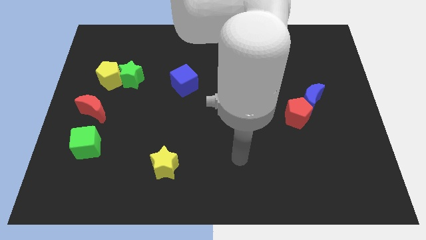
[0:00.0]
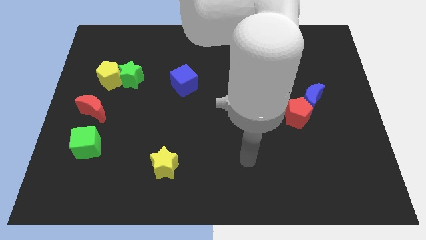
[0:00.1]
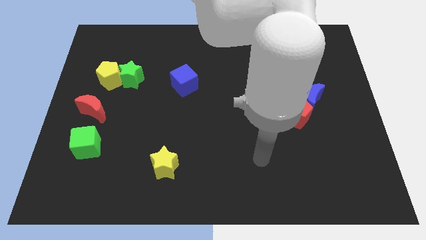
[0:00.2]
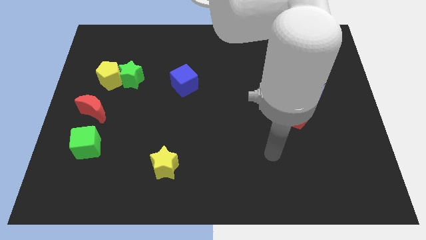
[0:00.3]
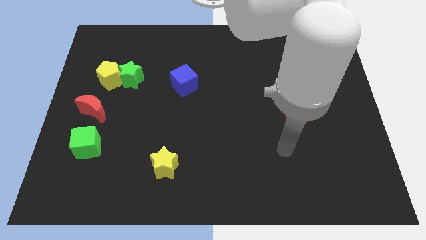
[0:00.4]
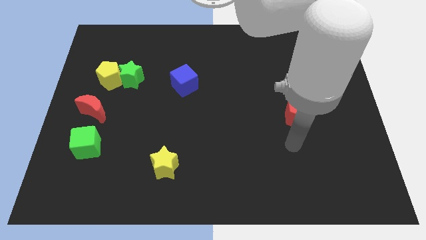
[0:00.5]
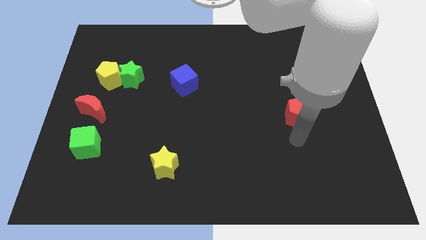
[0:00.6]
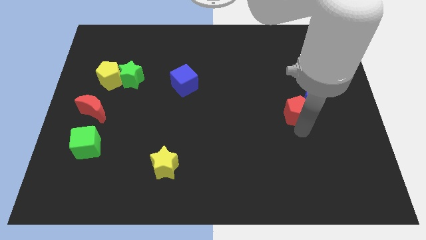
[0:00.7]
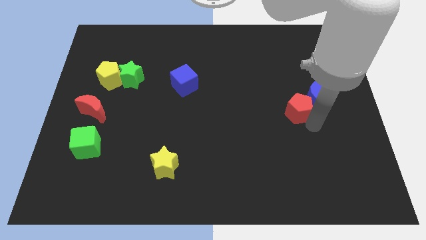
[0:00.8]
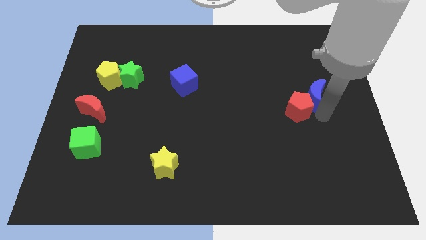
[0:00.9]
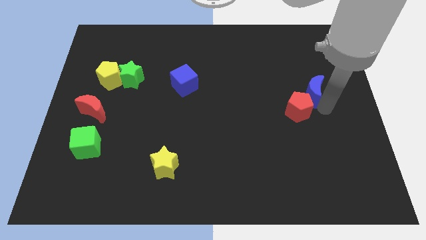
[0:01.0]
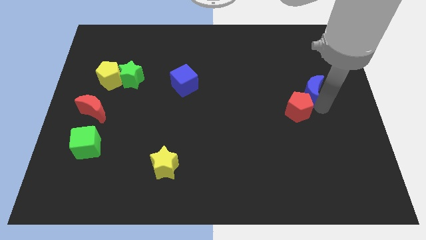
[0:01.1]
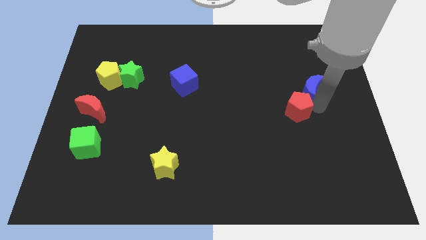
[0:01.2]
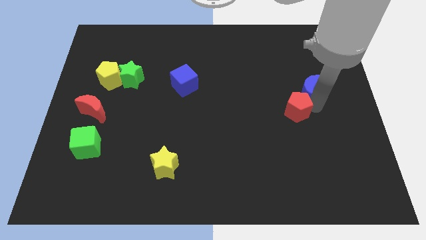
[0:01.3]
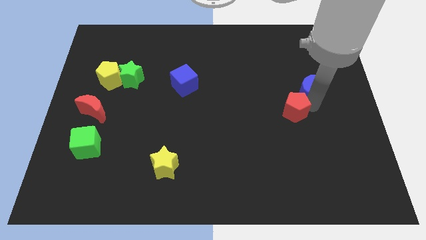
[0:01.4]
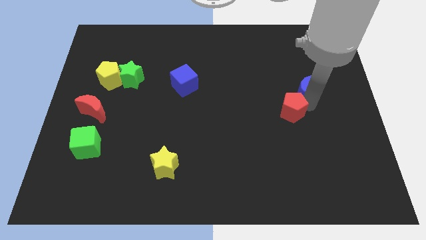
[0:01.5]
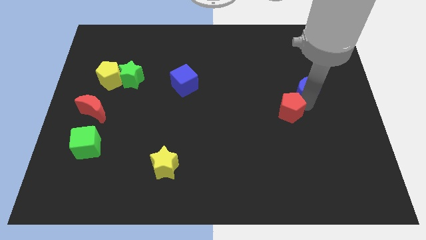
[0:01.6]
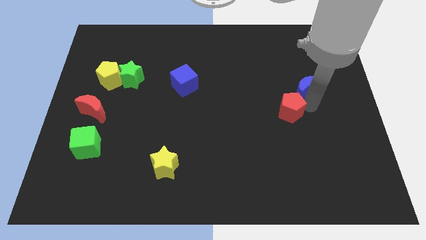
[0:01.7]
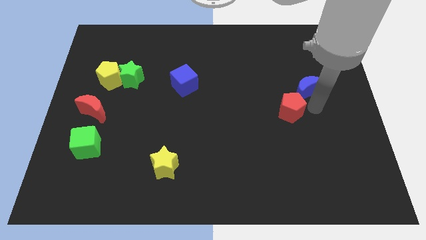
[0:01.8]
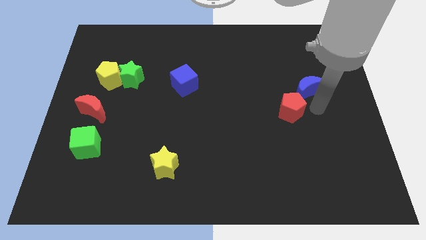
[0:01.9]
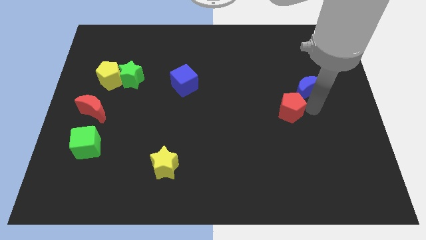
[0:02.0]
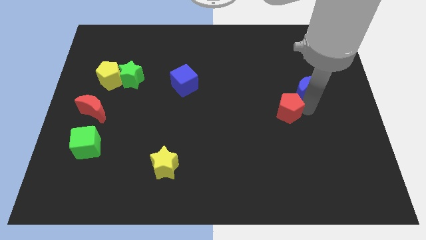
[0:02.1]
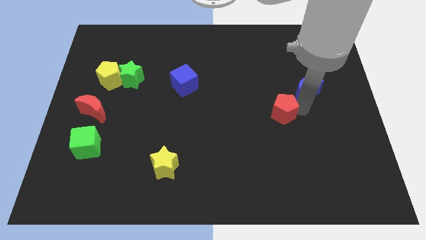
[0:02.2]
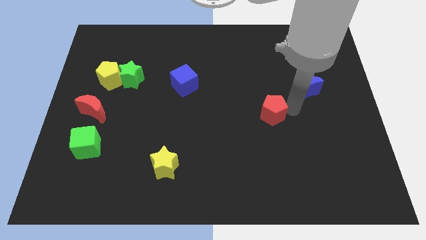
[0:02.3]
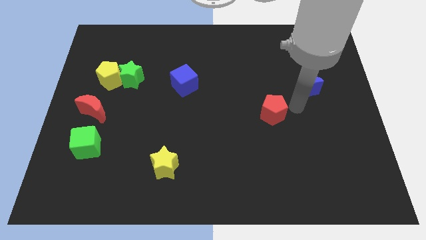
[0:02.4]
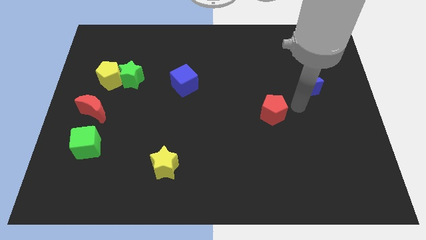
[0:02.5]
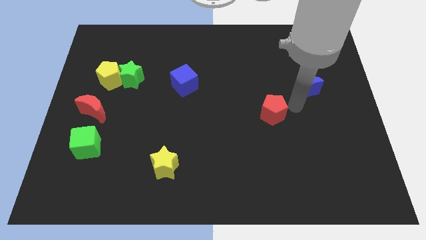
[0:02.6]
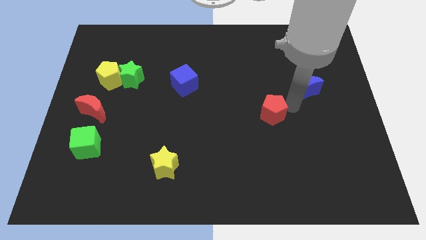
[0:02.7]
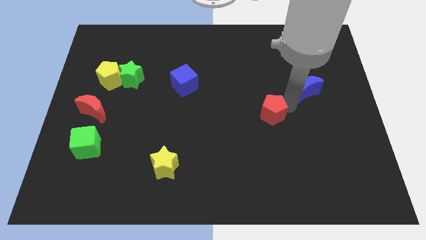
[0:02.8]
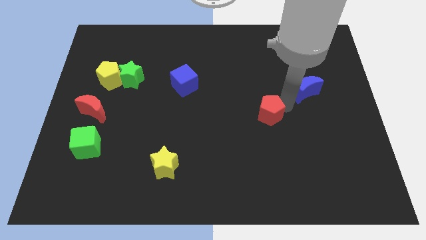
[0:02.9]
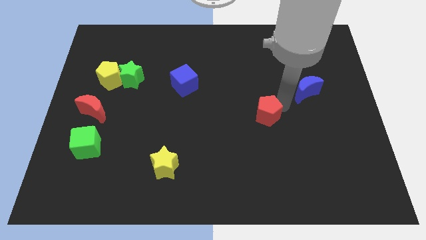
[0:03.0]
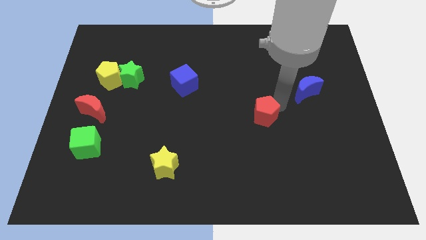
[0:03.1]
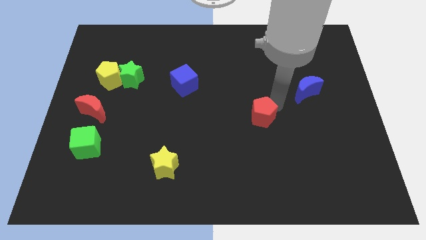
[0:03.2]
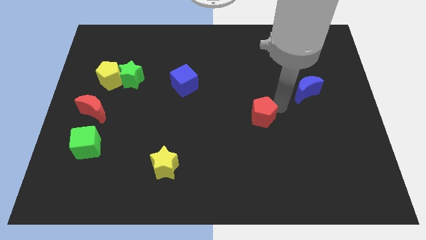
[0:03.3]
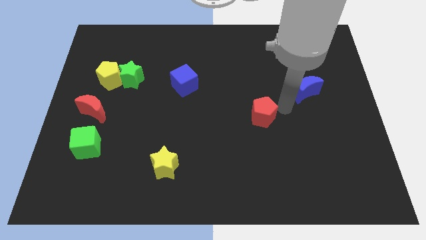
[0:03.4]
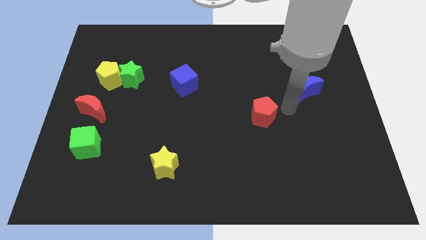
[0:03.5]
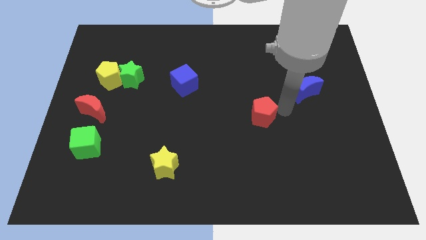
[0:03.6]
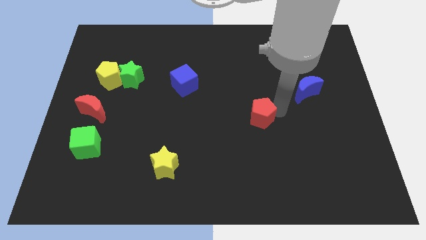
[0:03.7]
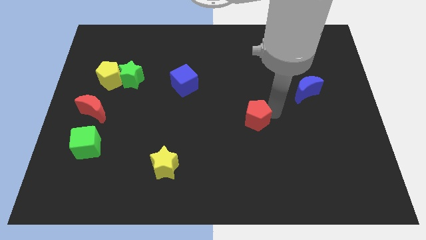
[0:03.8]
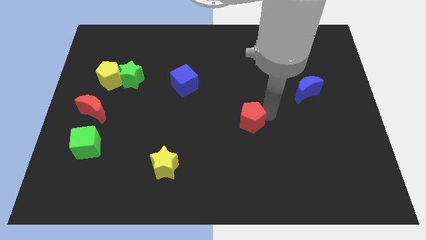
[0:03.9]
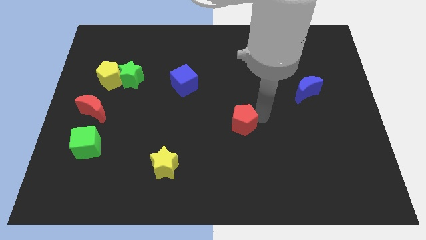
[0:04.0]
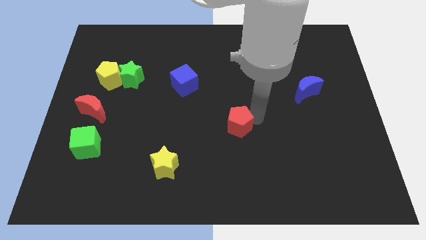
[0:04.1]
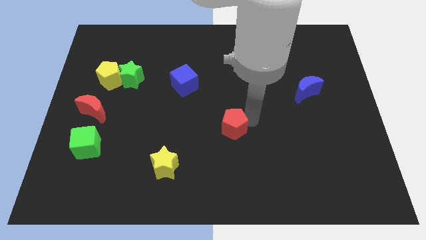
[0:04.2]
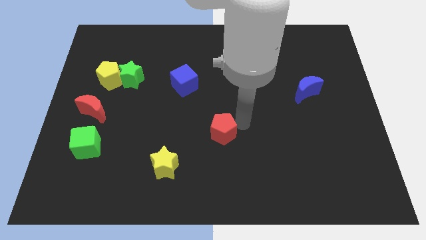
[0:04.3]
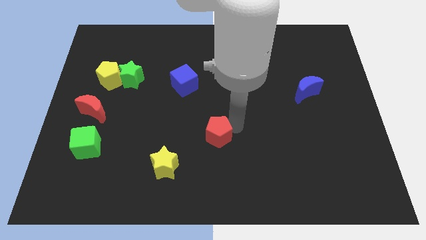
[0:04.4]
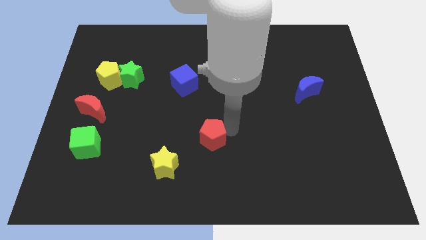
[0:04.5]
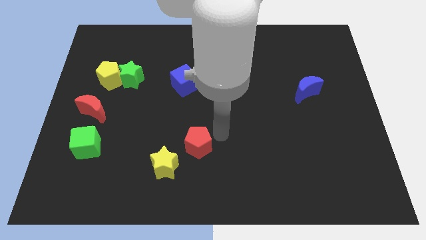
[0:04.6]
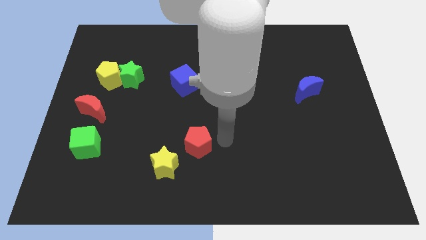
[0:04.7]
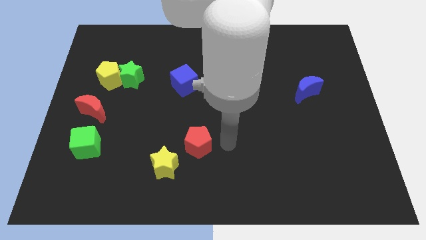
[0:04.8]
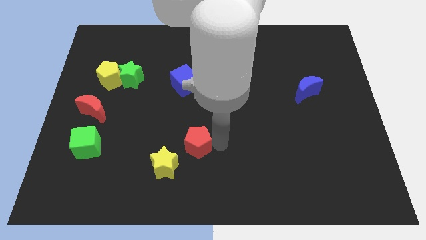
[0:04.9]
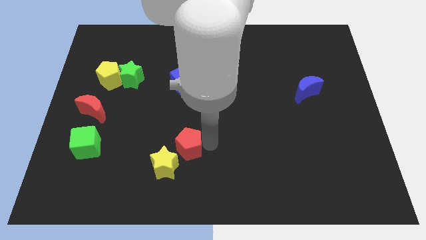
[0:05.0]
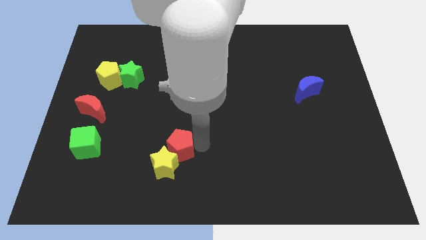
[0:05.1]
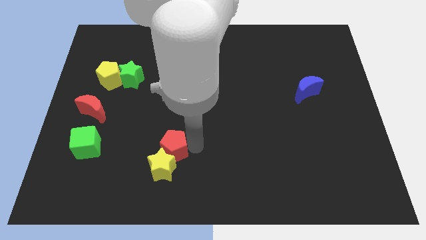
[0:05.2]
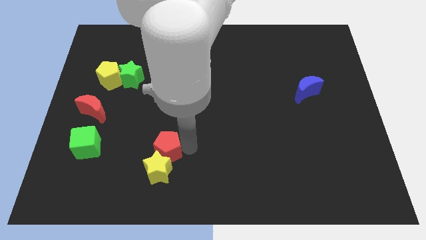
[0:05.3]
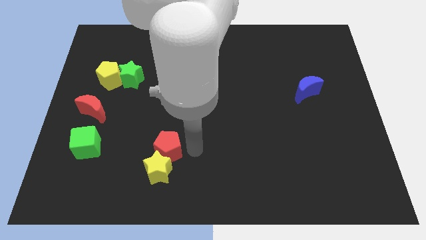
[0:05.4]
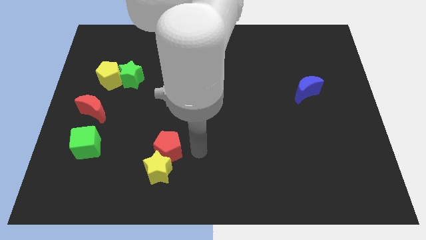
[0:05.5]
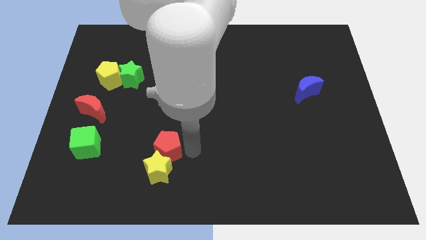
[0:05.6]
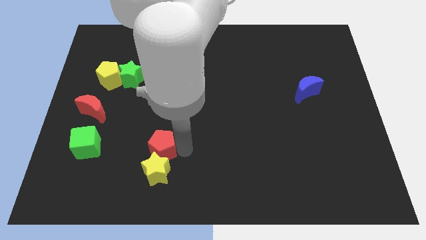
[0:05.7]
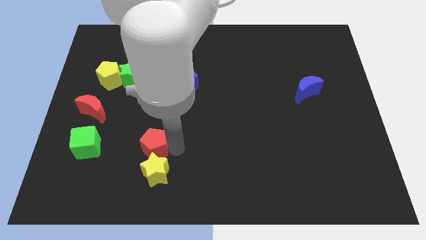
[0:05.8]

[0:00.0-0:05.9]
move the red pentagon to the right of the green cube
